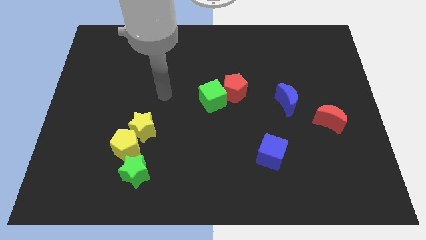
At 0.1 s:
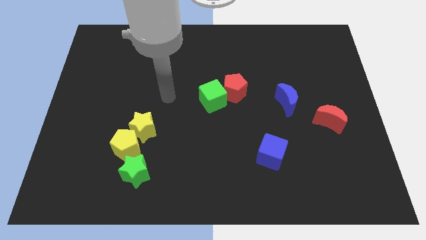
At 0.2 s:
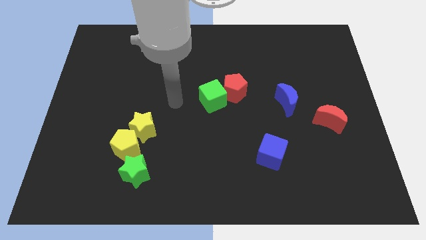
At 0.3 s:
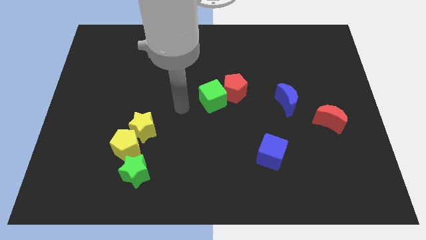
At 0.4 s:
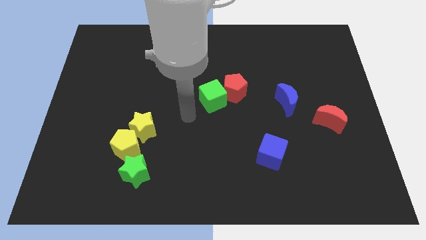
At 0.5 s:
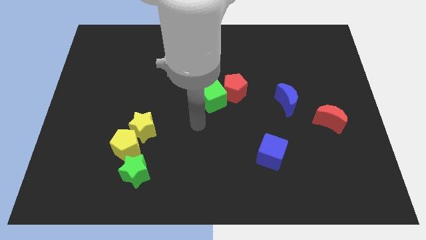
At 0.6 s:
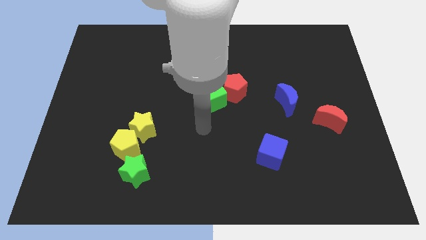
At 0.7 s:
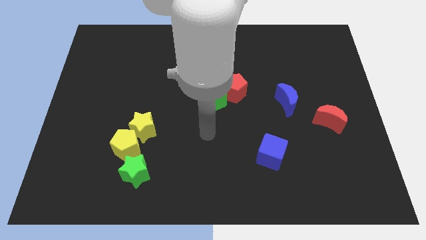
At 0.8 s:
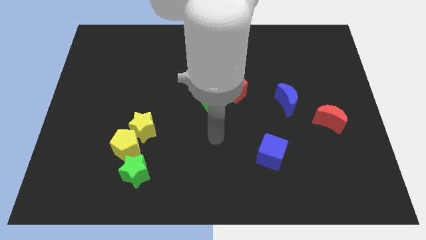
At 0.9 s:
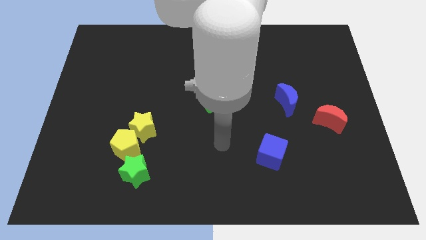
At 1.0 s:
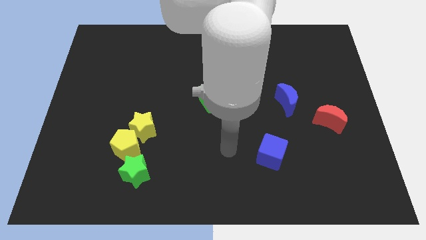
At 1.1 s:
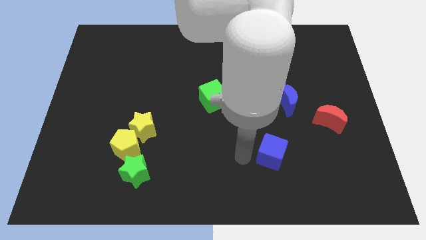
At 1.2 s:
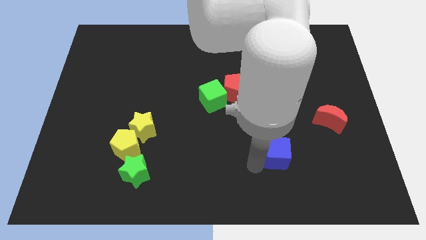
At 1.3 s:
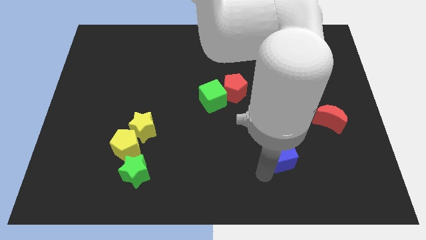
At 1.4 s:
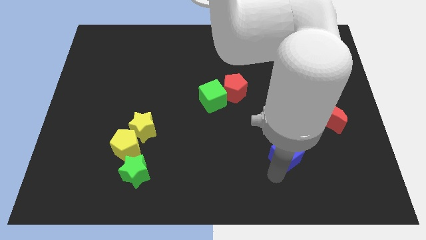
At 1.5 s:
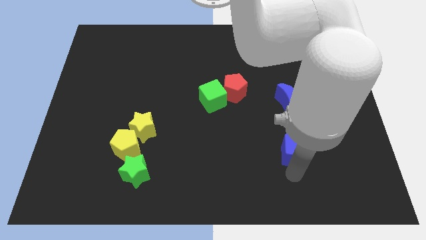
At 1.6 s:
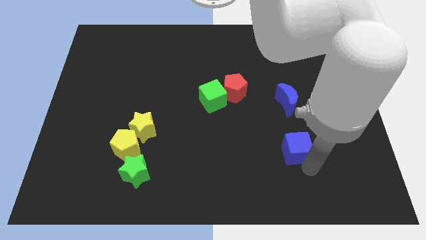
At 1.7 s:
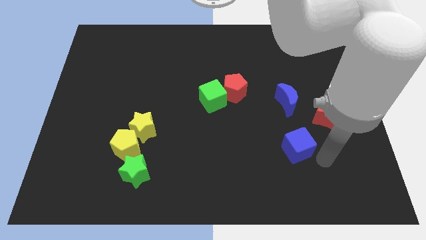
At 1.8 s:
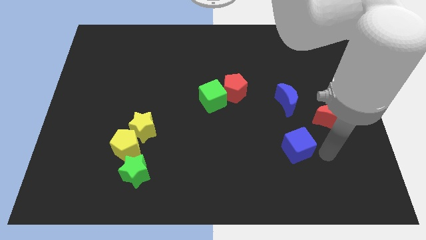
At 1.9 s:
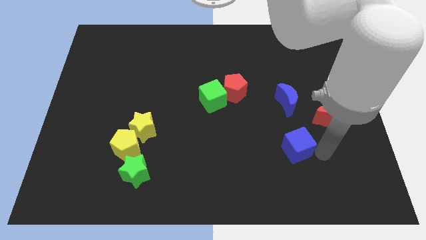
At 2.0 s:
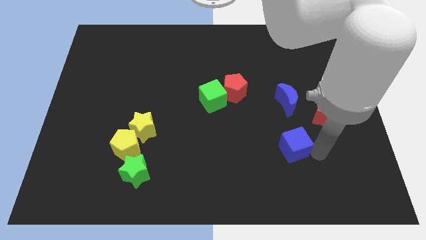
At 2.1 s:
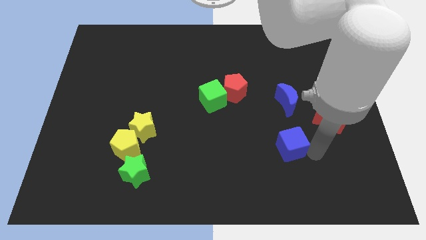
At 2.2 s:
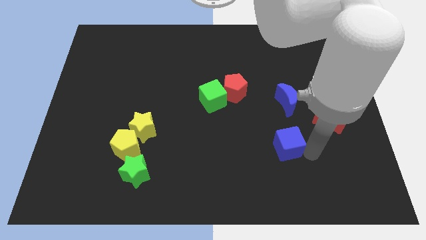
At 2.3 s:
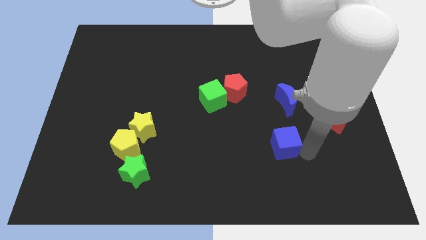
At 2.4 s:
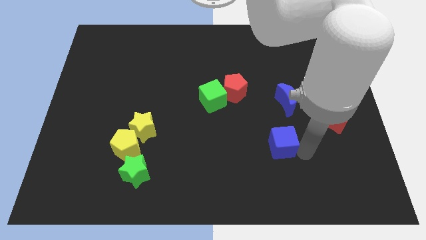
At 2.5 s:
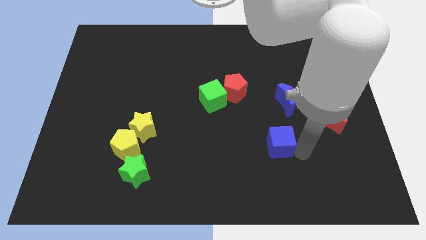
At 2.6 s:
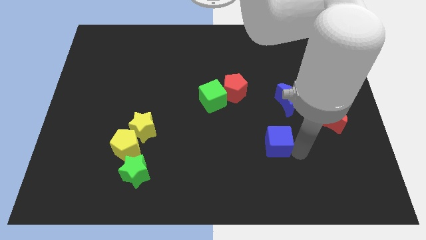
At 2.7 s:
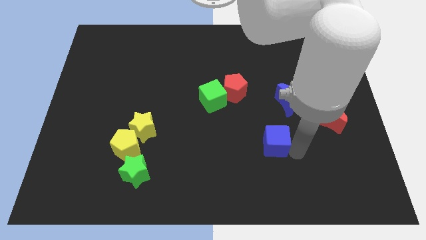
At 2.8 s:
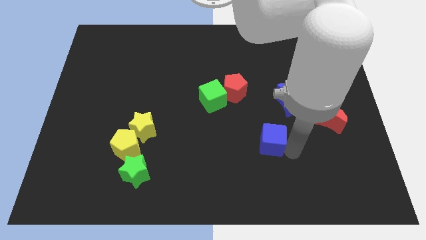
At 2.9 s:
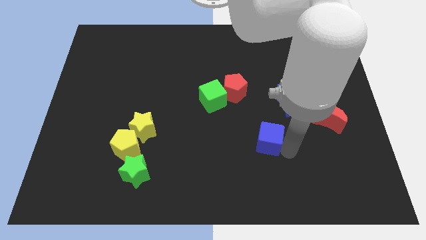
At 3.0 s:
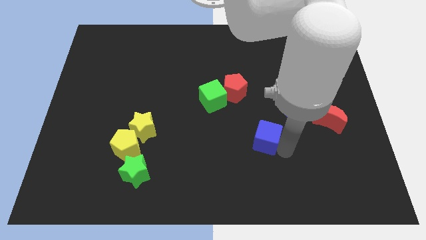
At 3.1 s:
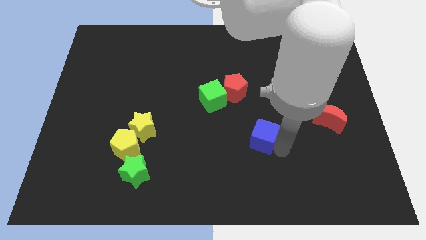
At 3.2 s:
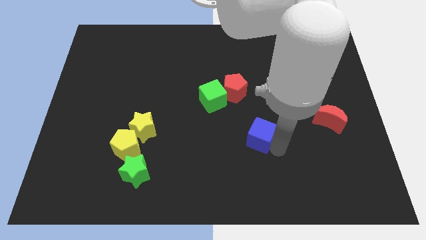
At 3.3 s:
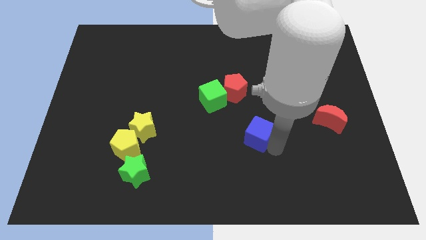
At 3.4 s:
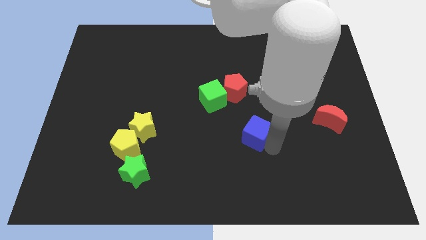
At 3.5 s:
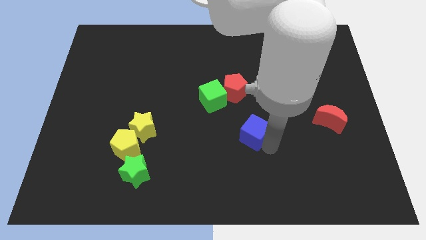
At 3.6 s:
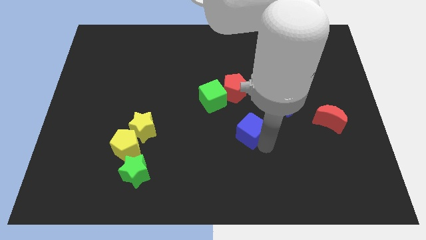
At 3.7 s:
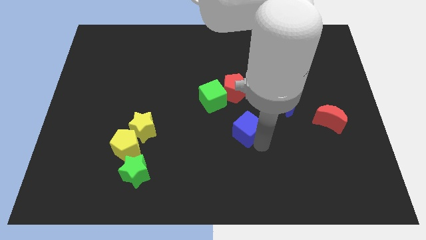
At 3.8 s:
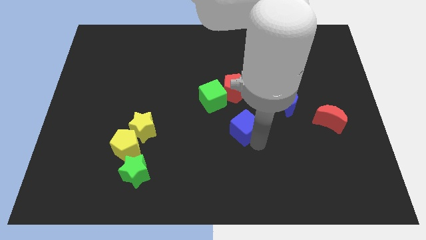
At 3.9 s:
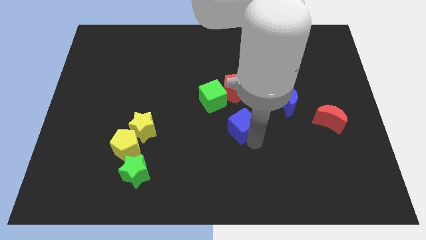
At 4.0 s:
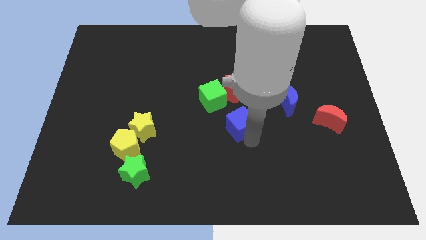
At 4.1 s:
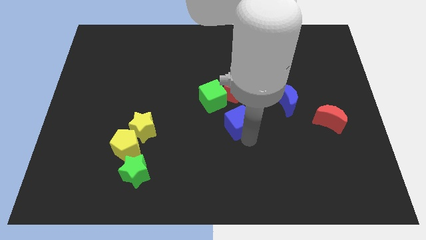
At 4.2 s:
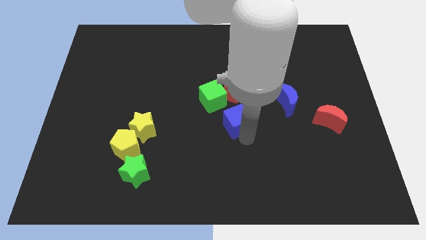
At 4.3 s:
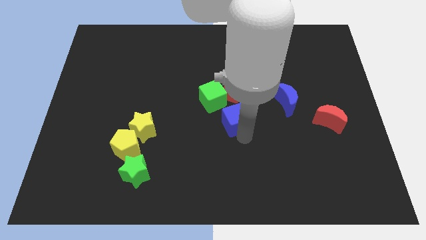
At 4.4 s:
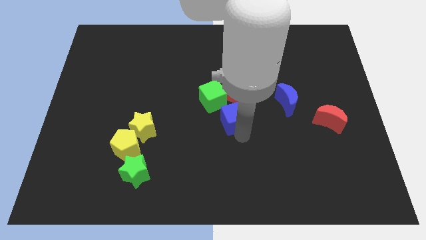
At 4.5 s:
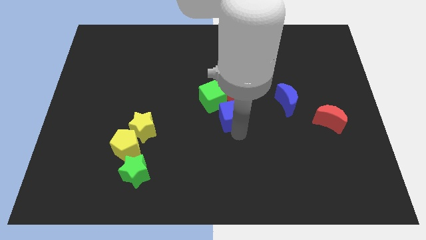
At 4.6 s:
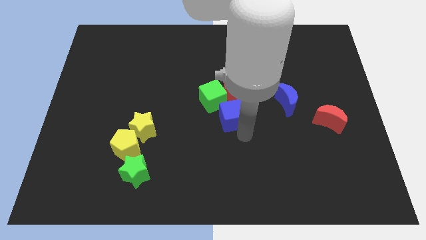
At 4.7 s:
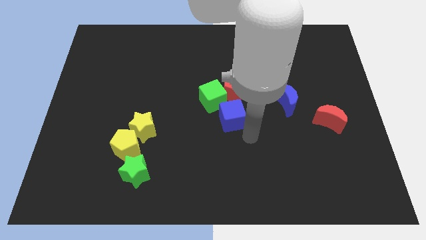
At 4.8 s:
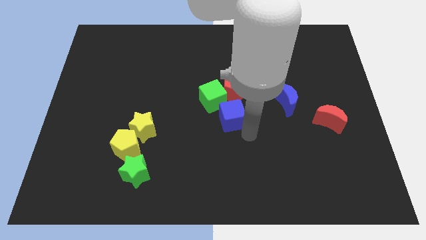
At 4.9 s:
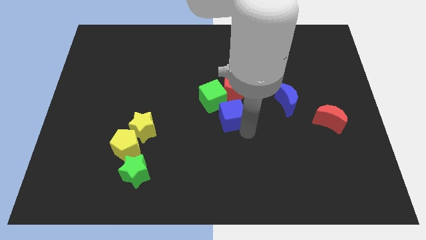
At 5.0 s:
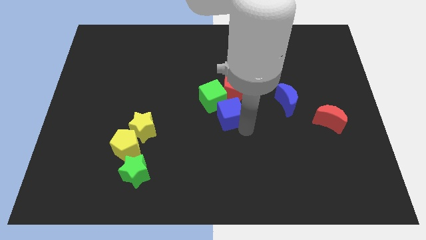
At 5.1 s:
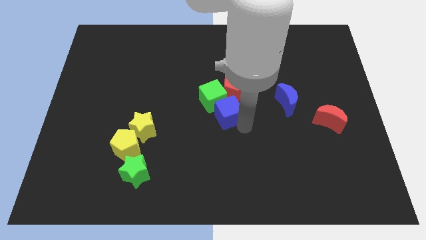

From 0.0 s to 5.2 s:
move the blue cube next to the green cube

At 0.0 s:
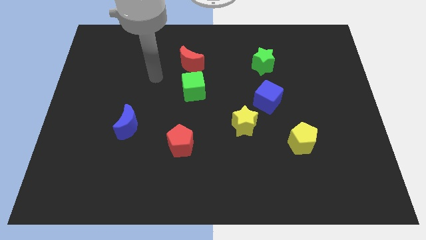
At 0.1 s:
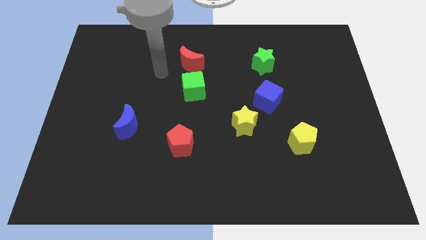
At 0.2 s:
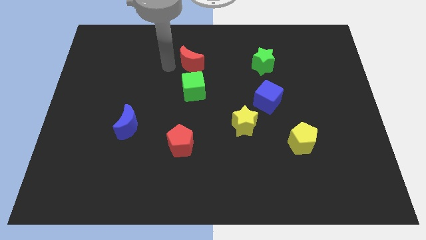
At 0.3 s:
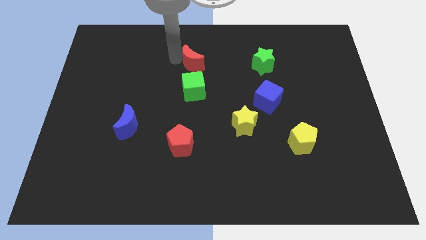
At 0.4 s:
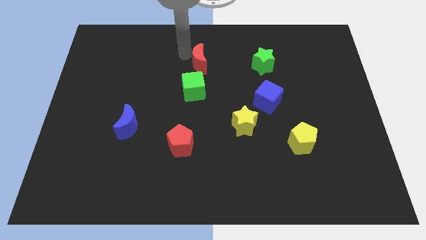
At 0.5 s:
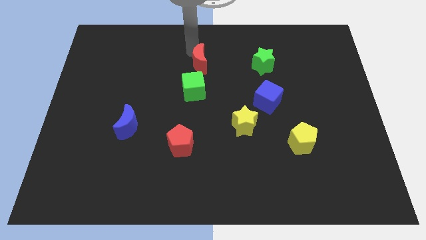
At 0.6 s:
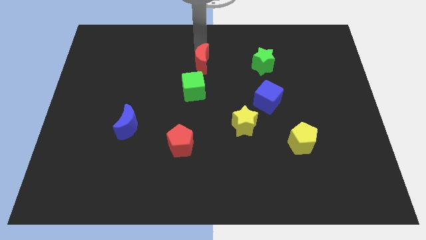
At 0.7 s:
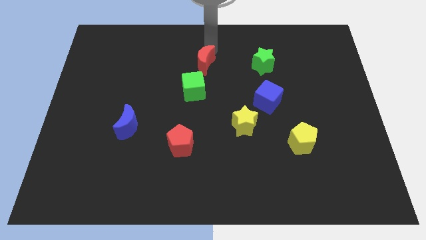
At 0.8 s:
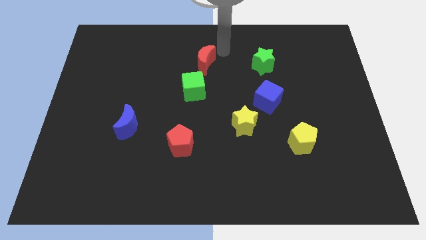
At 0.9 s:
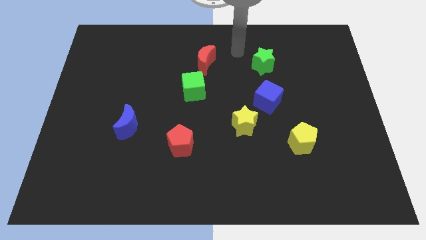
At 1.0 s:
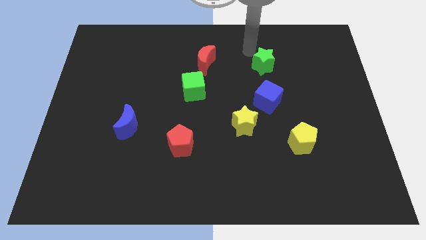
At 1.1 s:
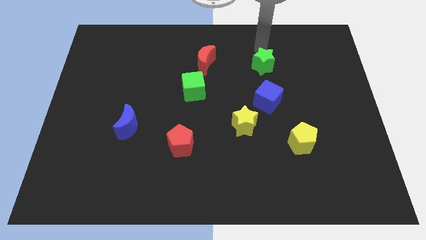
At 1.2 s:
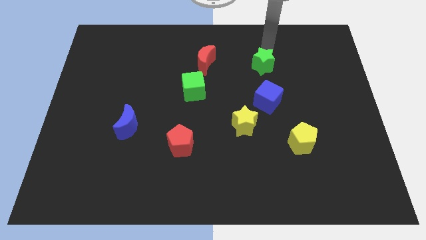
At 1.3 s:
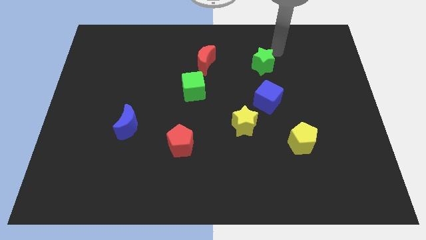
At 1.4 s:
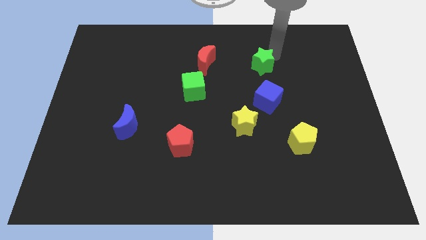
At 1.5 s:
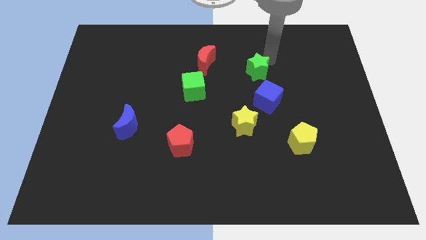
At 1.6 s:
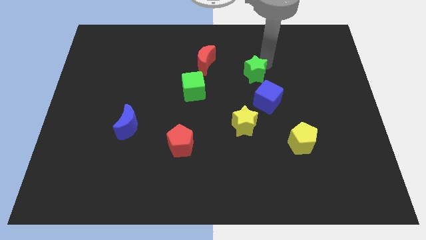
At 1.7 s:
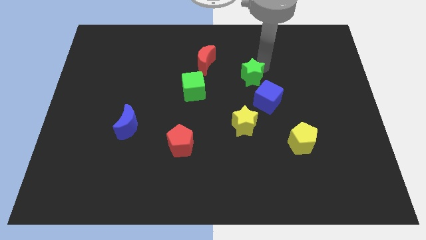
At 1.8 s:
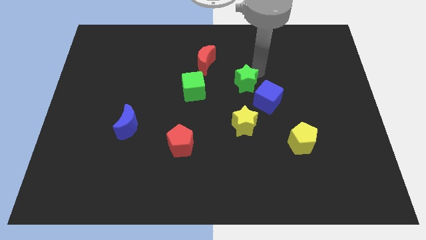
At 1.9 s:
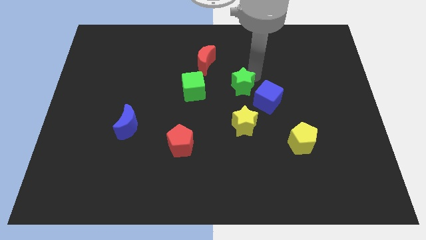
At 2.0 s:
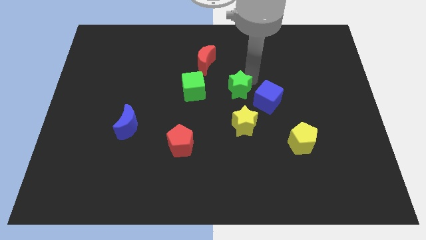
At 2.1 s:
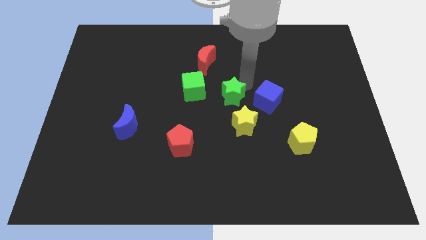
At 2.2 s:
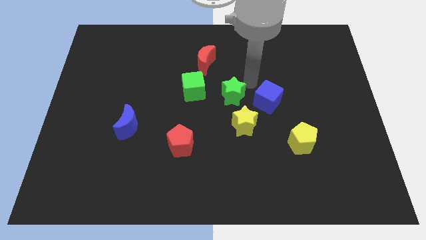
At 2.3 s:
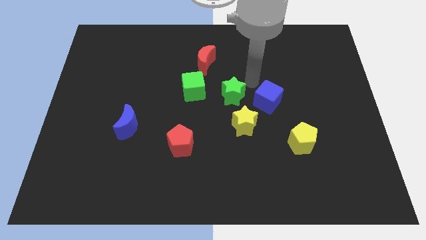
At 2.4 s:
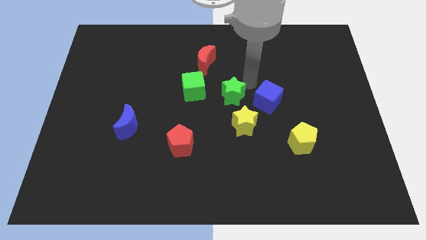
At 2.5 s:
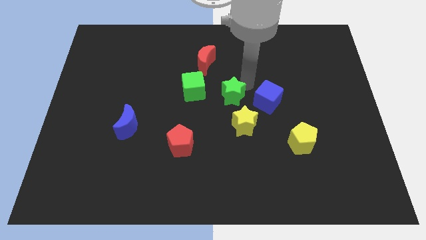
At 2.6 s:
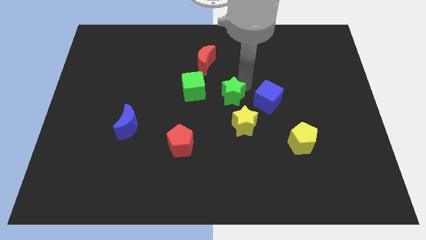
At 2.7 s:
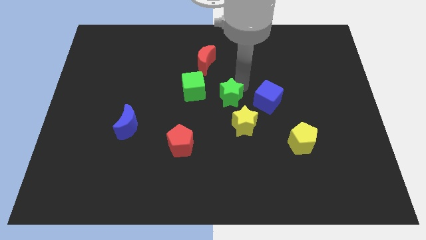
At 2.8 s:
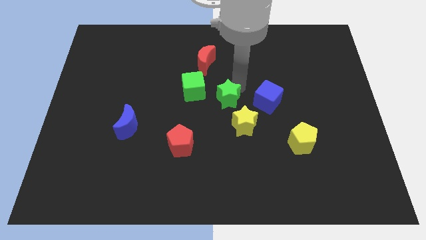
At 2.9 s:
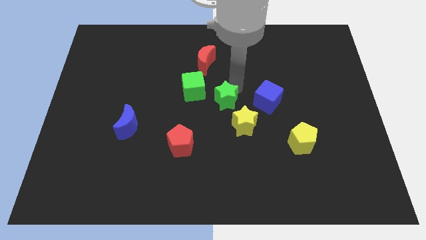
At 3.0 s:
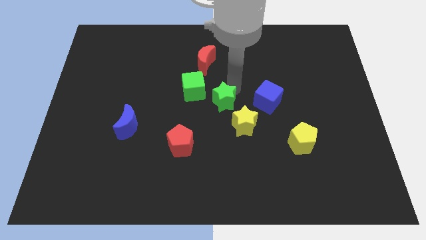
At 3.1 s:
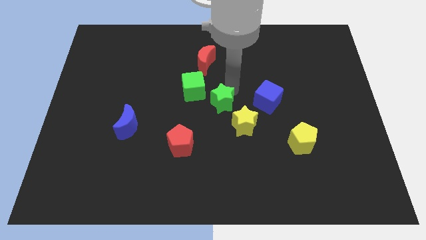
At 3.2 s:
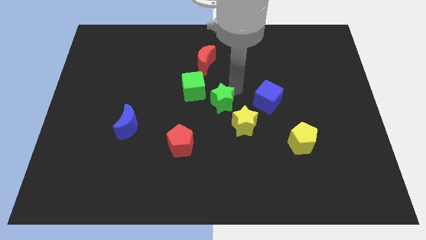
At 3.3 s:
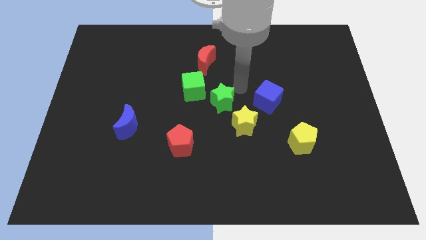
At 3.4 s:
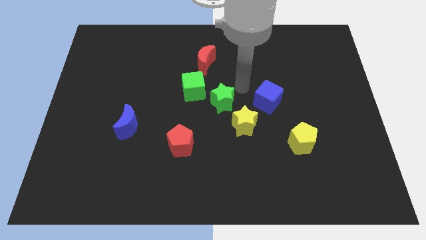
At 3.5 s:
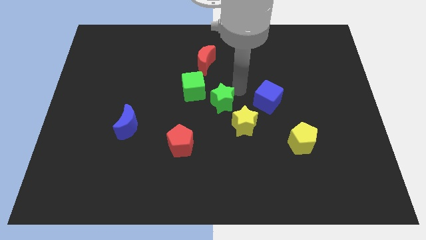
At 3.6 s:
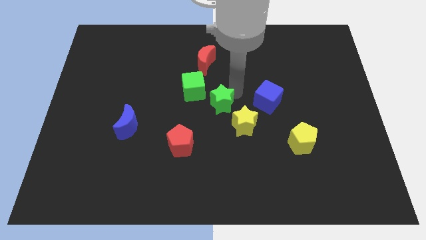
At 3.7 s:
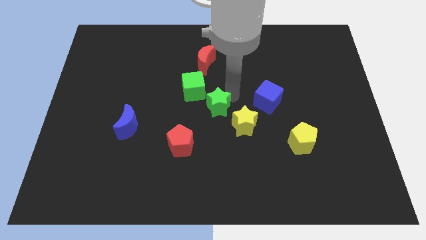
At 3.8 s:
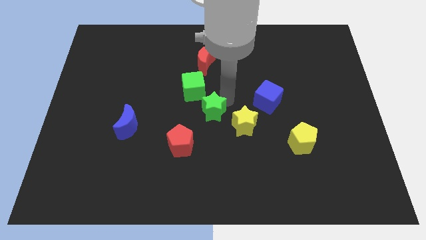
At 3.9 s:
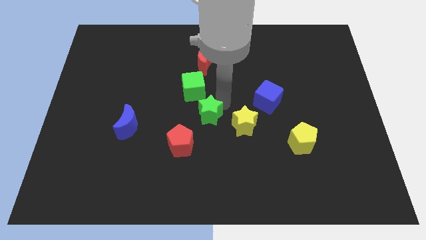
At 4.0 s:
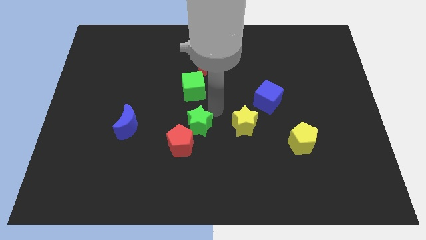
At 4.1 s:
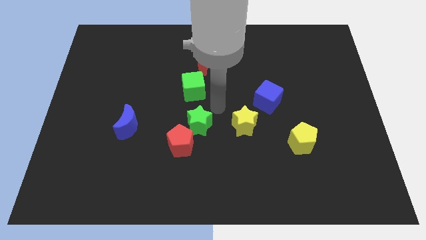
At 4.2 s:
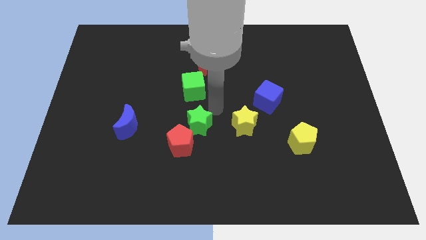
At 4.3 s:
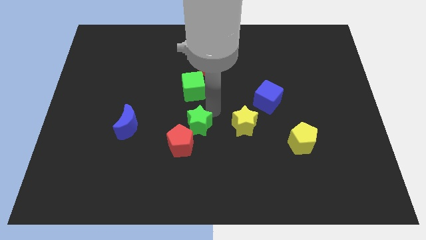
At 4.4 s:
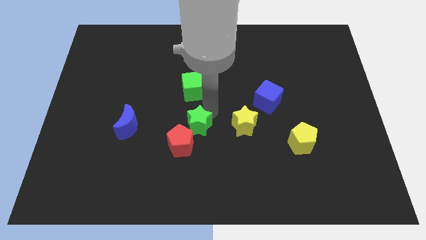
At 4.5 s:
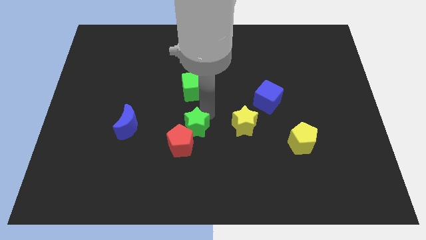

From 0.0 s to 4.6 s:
put the green star close to the red pentagon
